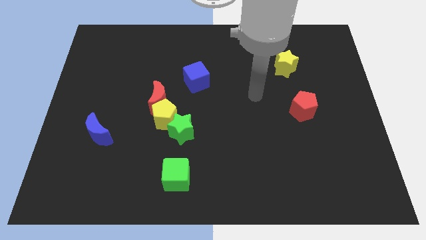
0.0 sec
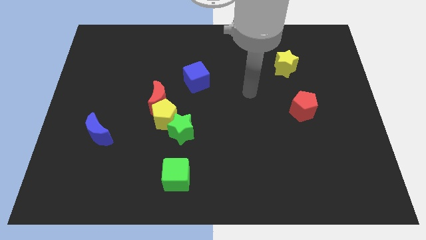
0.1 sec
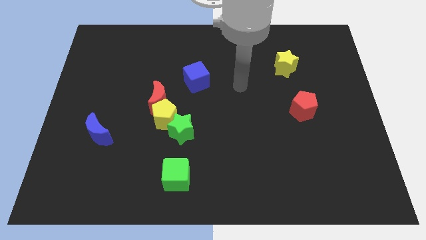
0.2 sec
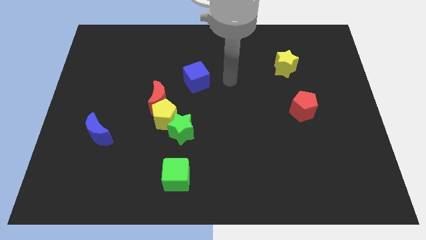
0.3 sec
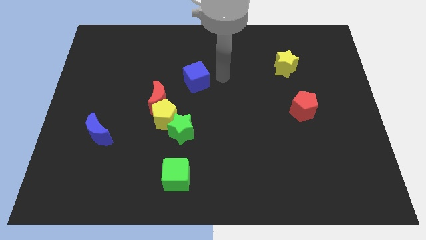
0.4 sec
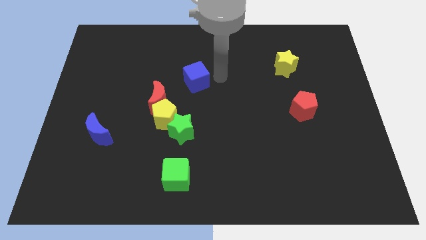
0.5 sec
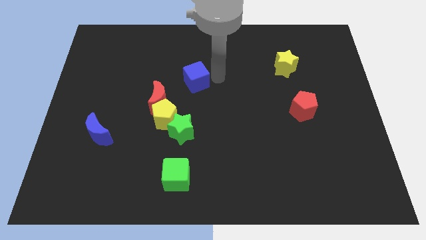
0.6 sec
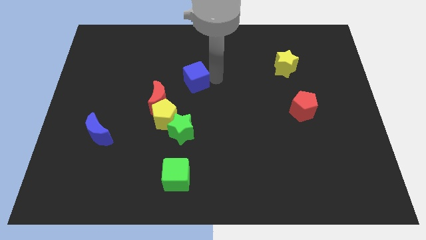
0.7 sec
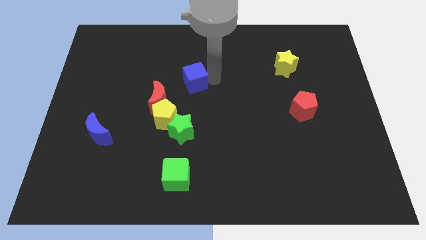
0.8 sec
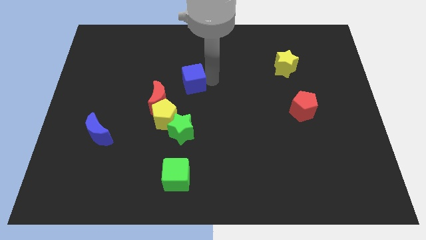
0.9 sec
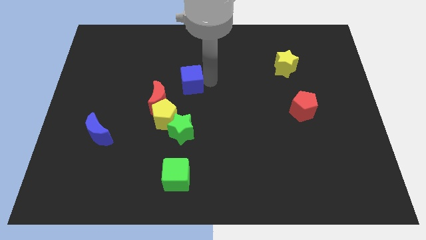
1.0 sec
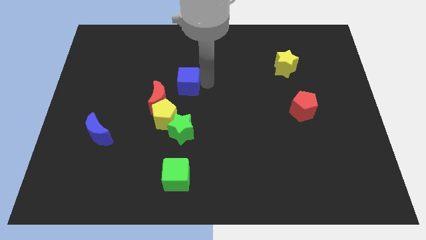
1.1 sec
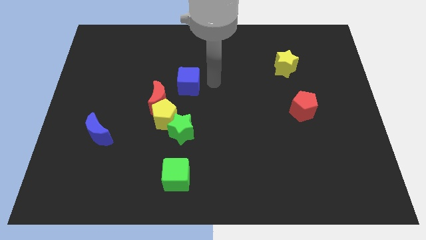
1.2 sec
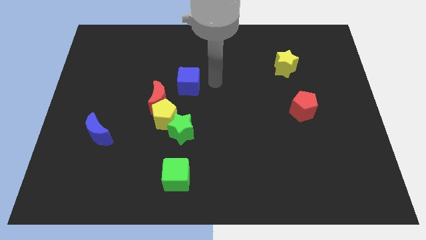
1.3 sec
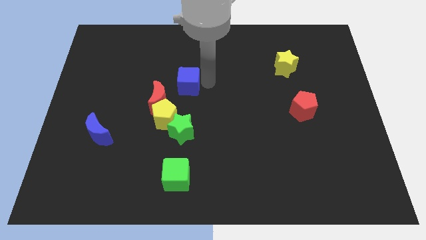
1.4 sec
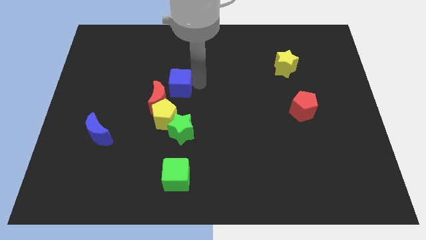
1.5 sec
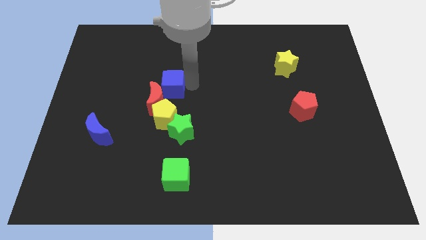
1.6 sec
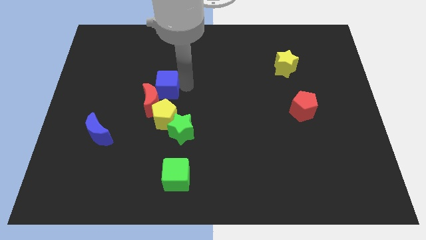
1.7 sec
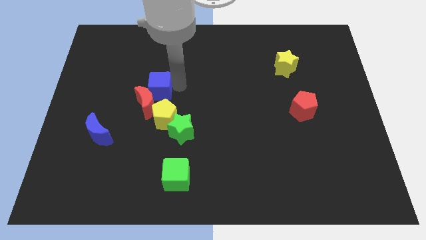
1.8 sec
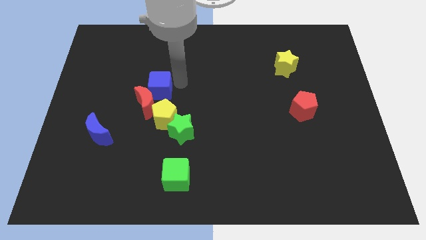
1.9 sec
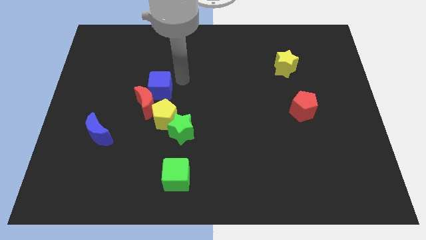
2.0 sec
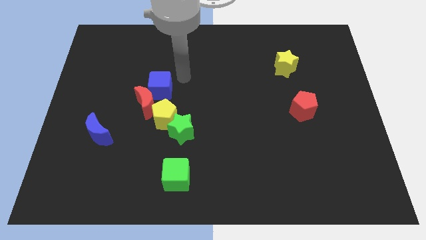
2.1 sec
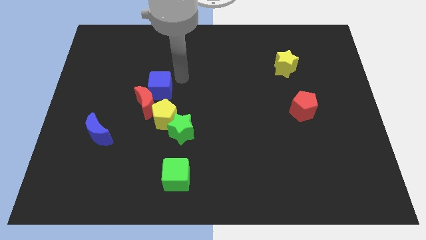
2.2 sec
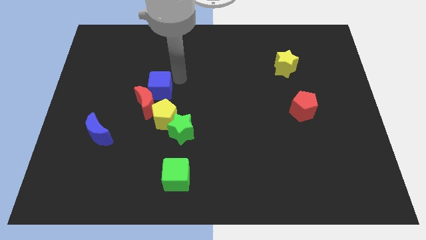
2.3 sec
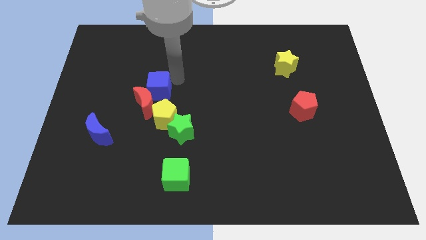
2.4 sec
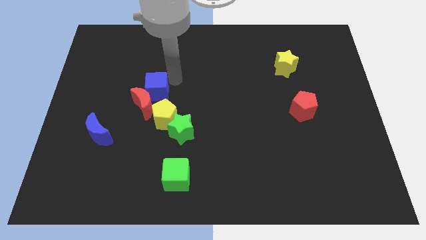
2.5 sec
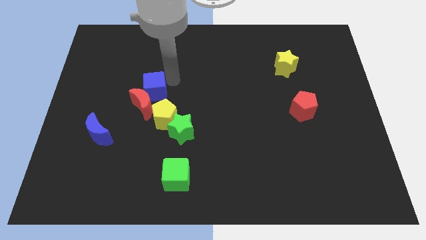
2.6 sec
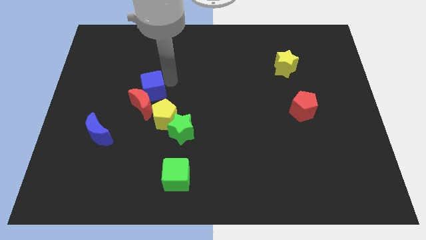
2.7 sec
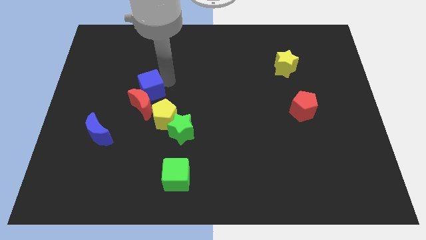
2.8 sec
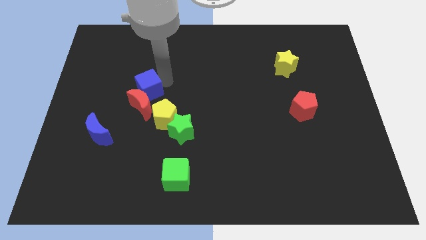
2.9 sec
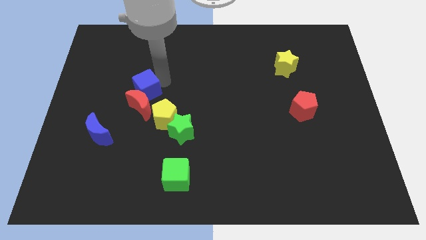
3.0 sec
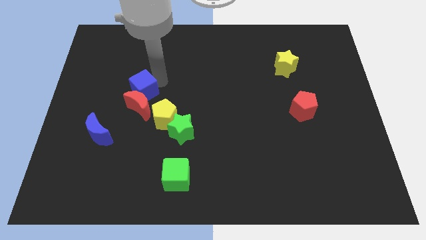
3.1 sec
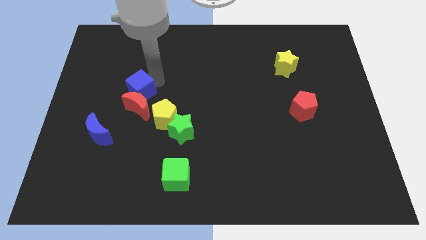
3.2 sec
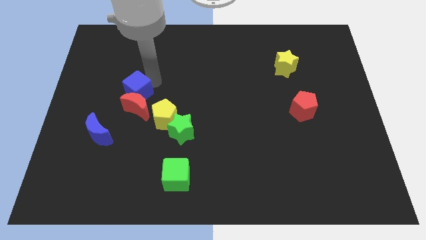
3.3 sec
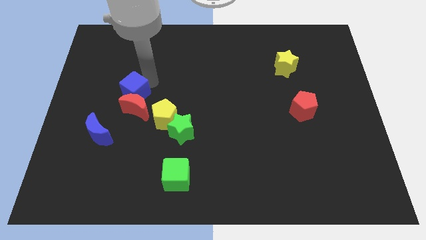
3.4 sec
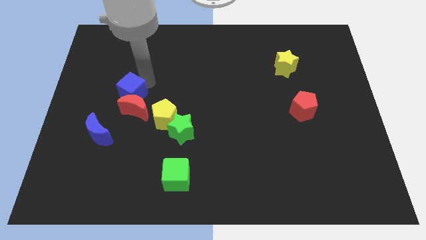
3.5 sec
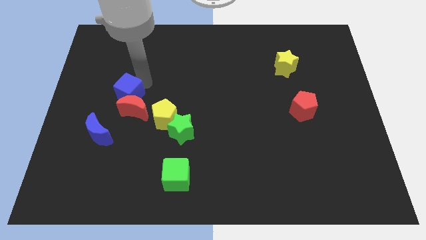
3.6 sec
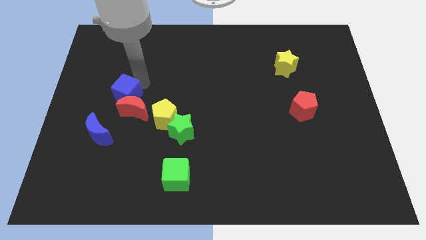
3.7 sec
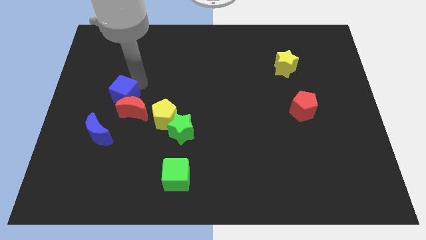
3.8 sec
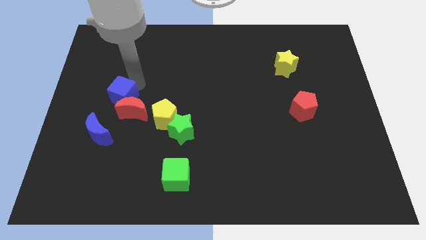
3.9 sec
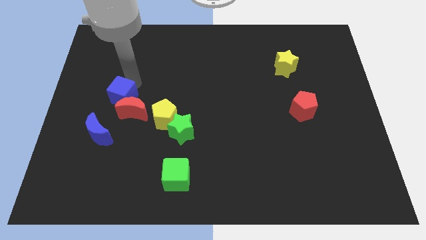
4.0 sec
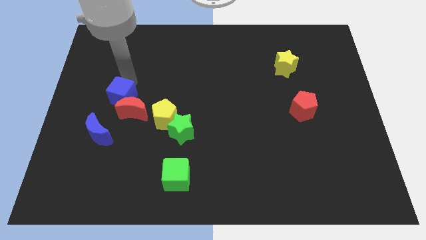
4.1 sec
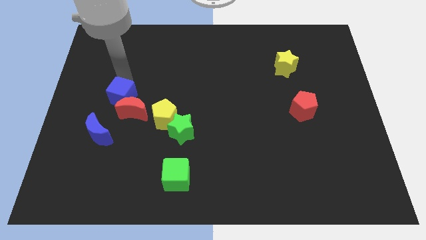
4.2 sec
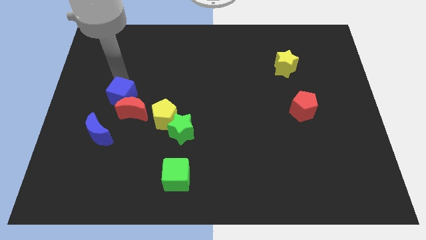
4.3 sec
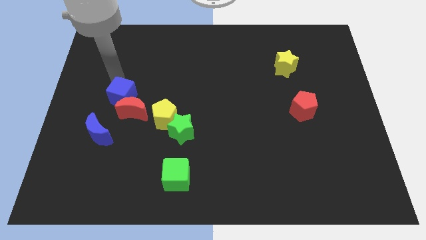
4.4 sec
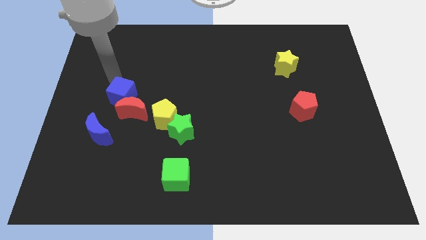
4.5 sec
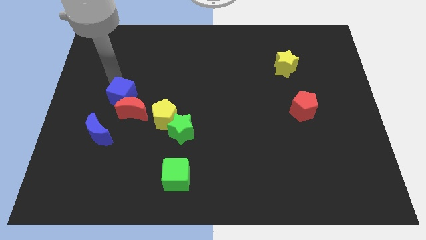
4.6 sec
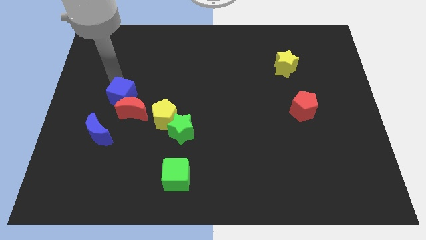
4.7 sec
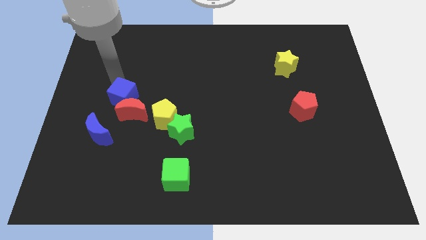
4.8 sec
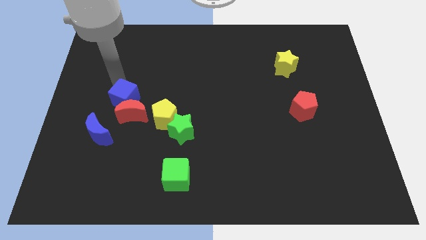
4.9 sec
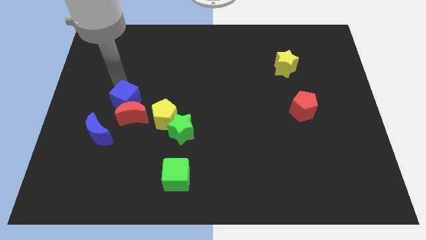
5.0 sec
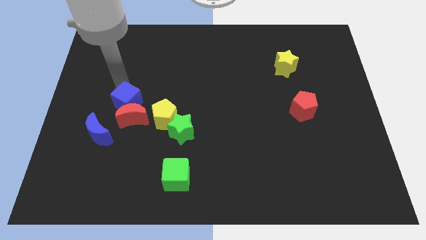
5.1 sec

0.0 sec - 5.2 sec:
push the blue cube to the left side of the yellow pentagon

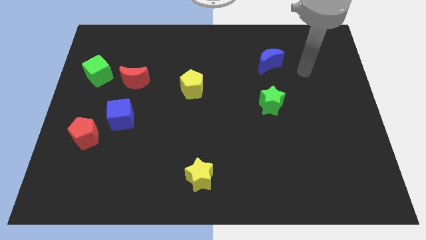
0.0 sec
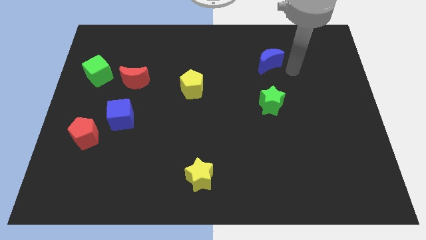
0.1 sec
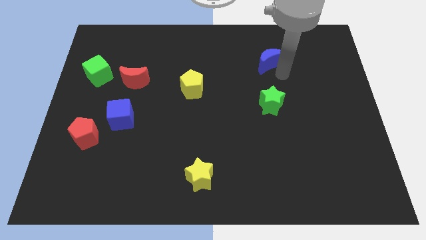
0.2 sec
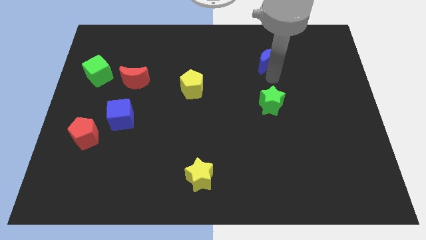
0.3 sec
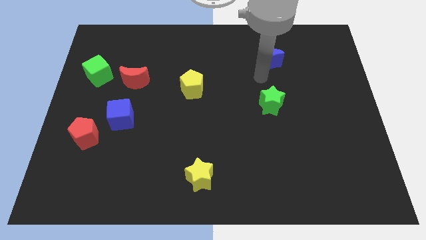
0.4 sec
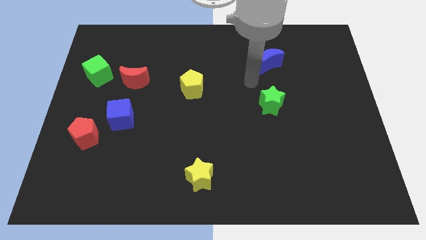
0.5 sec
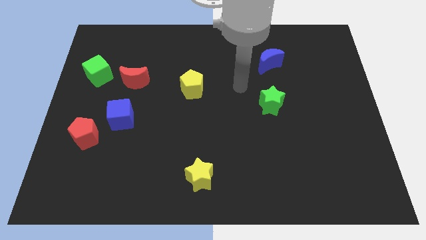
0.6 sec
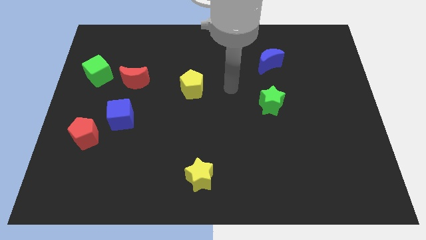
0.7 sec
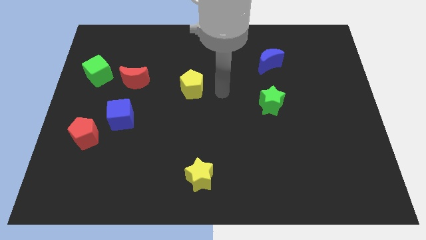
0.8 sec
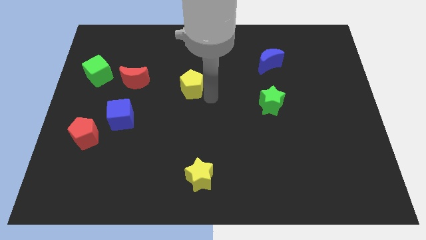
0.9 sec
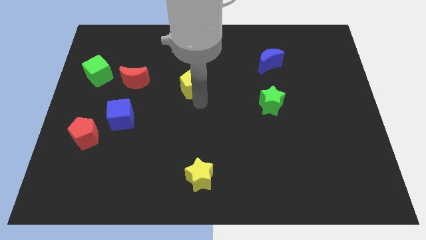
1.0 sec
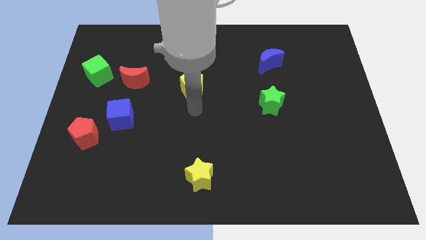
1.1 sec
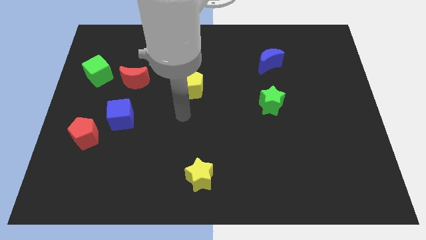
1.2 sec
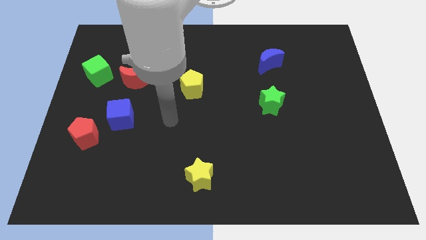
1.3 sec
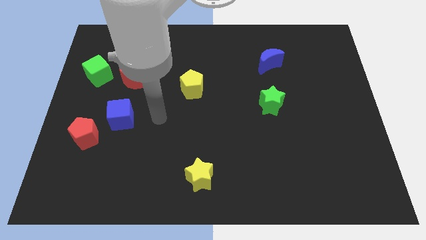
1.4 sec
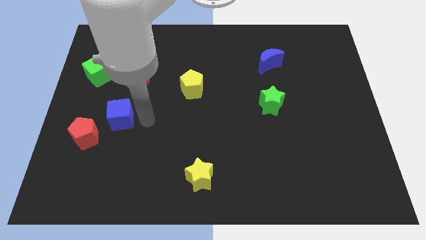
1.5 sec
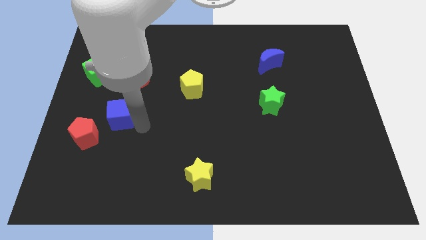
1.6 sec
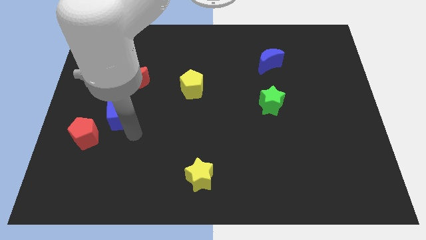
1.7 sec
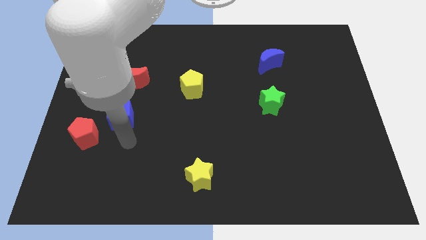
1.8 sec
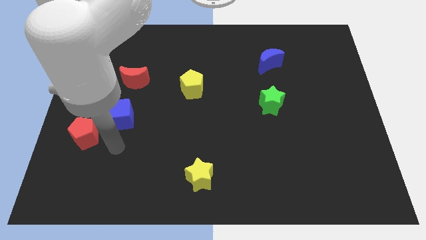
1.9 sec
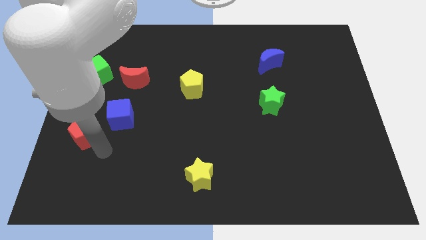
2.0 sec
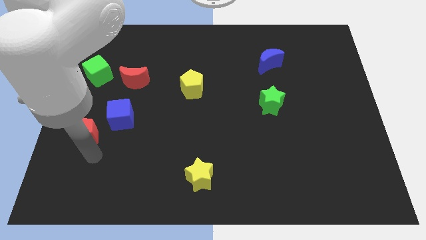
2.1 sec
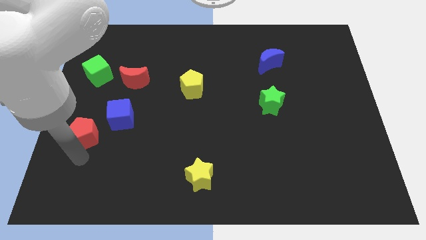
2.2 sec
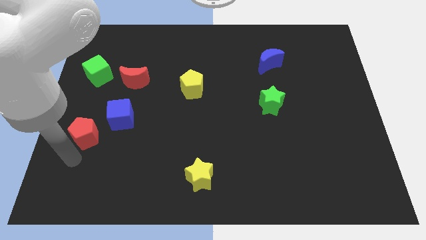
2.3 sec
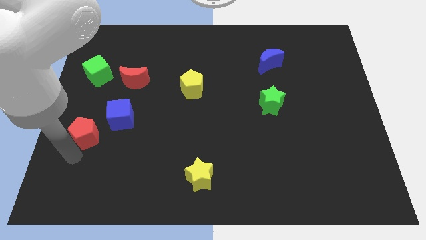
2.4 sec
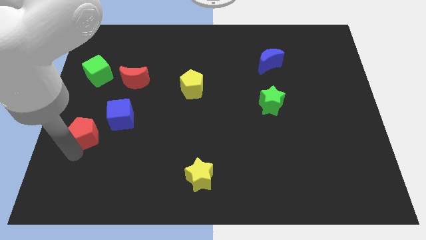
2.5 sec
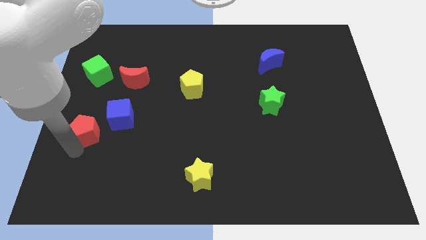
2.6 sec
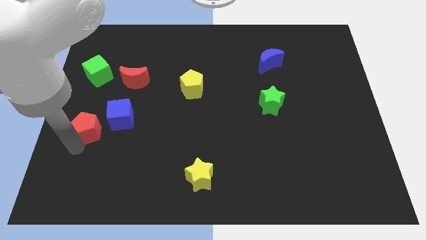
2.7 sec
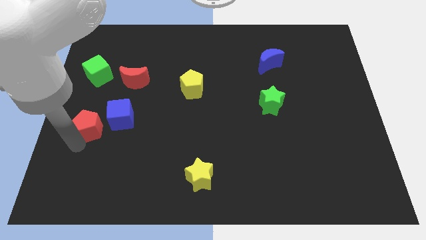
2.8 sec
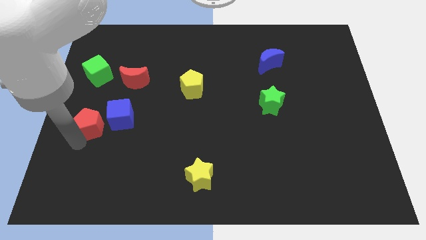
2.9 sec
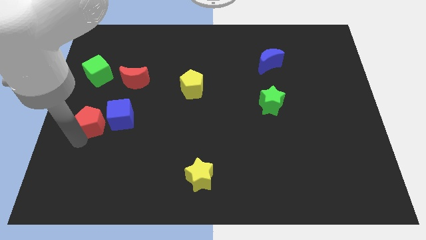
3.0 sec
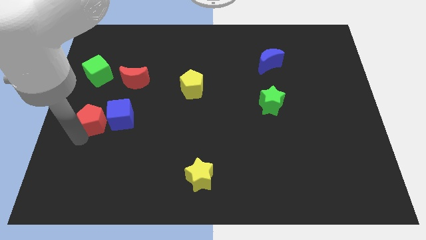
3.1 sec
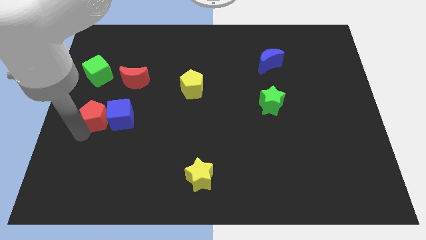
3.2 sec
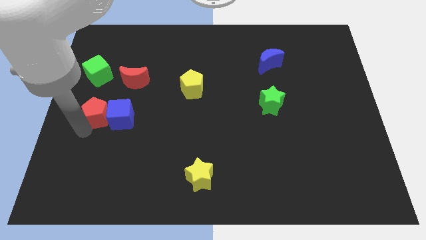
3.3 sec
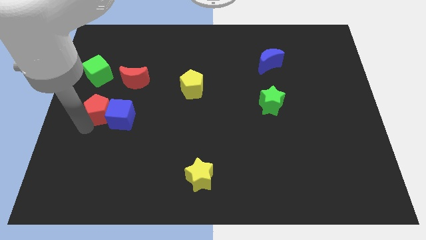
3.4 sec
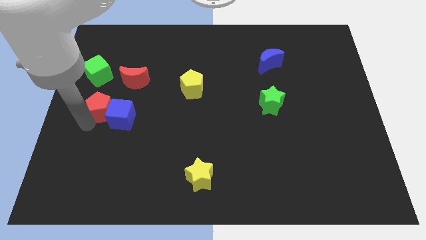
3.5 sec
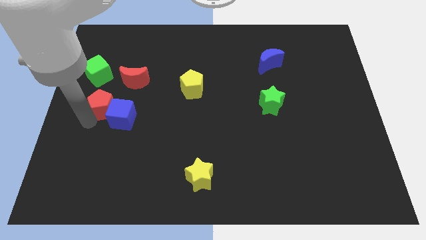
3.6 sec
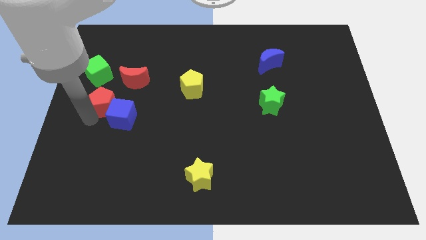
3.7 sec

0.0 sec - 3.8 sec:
move the red pentagon to the bottom right of the green cube
